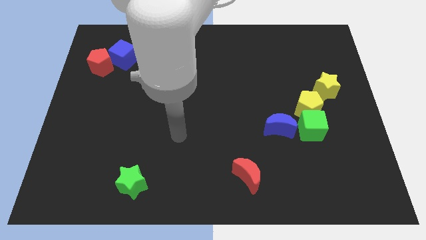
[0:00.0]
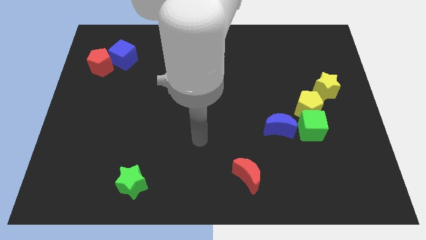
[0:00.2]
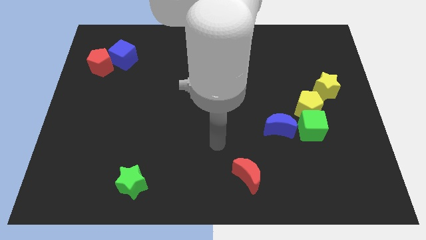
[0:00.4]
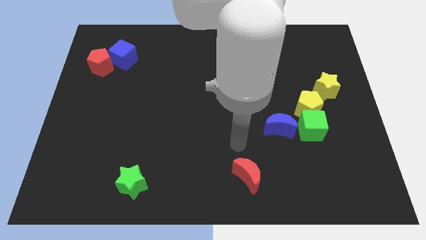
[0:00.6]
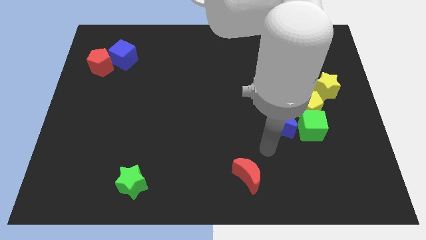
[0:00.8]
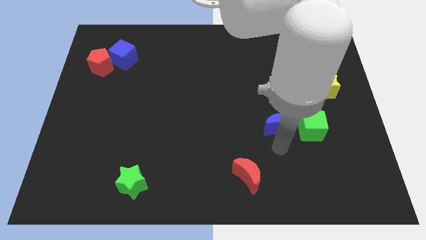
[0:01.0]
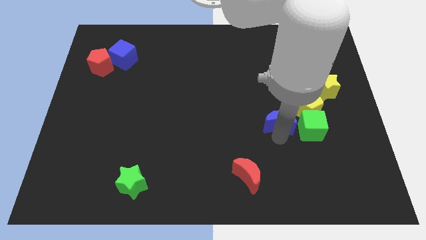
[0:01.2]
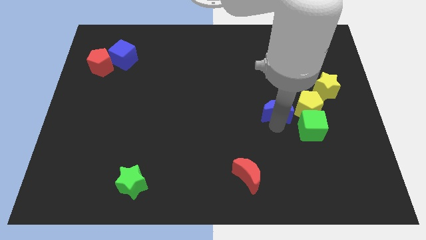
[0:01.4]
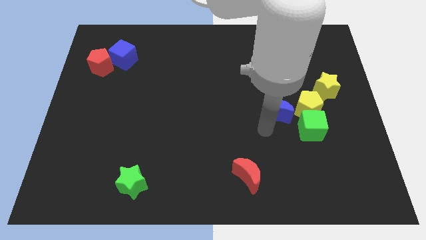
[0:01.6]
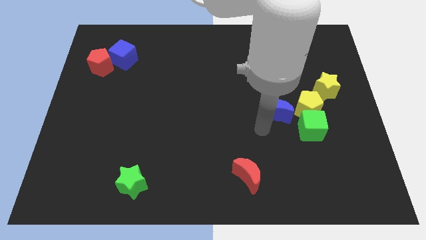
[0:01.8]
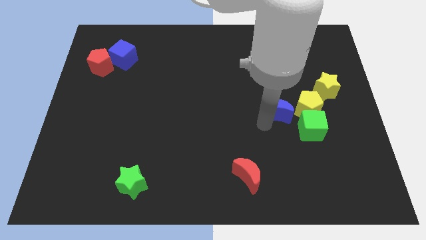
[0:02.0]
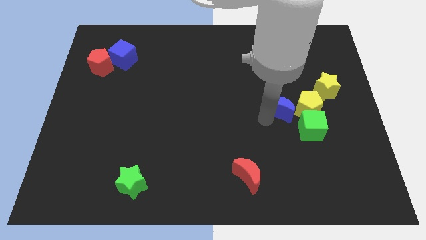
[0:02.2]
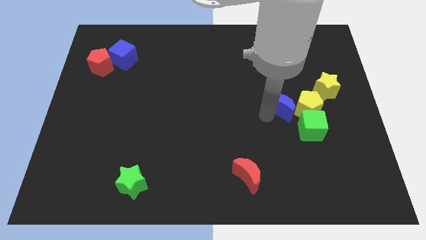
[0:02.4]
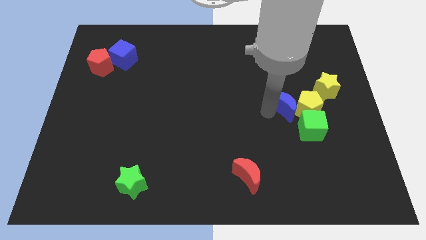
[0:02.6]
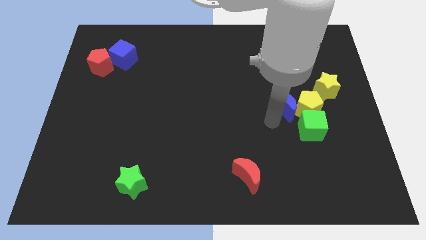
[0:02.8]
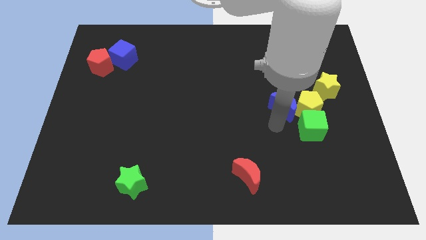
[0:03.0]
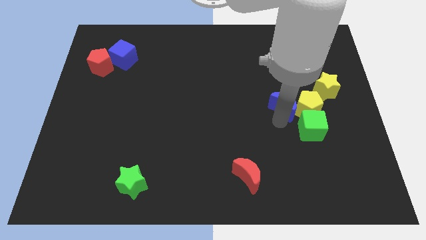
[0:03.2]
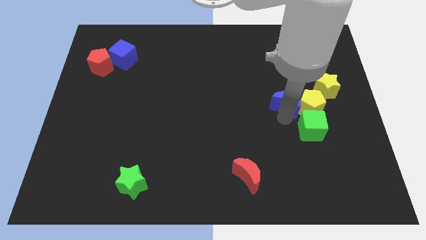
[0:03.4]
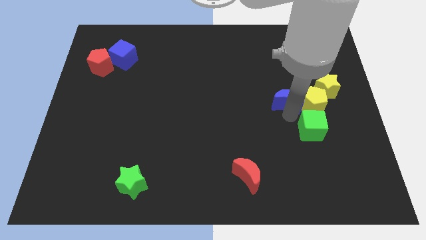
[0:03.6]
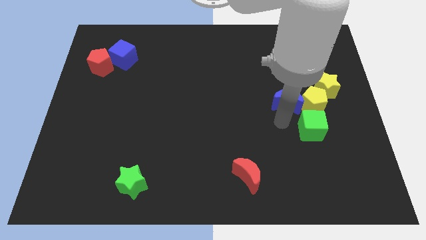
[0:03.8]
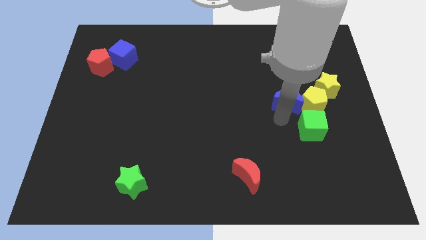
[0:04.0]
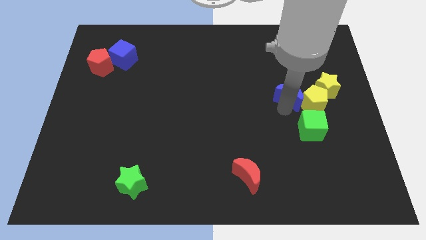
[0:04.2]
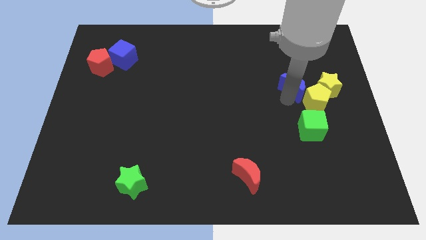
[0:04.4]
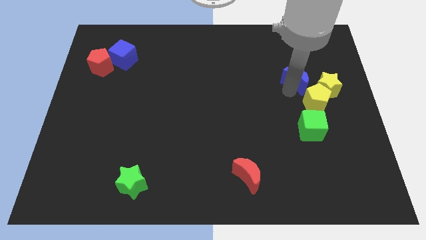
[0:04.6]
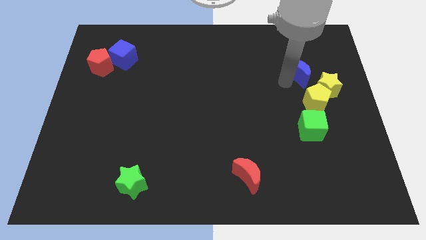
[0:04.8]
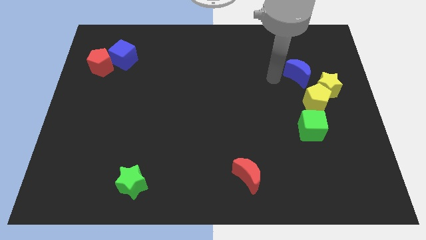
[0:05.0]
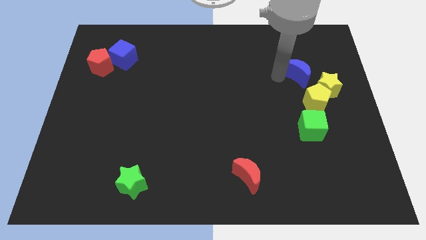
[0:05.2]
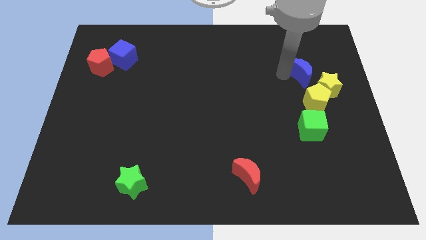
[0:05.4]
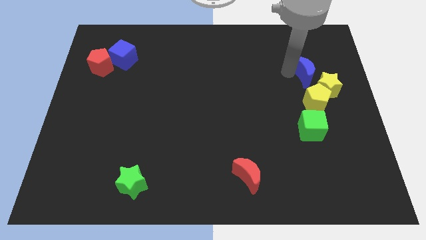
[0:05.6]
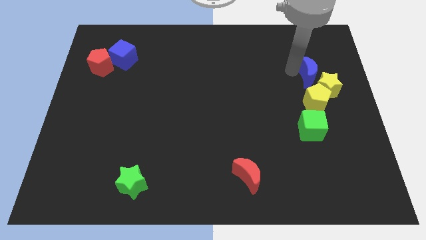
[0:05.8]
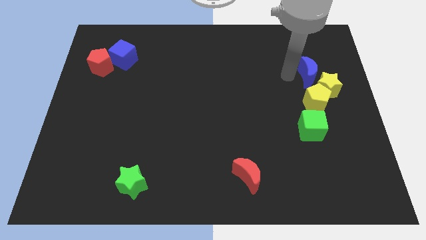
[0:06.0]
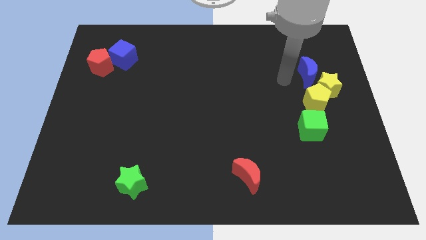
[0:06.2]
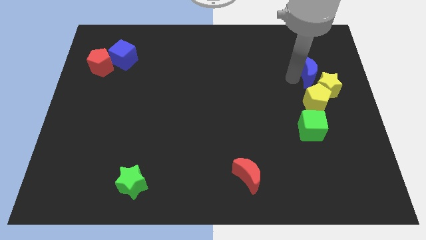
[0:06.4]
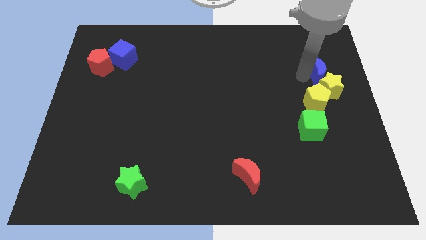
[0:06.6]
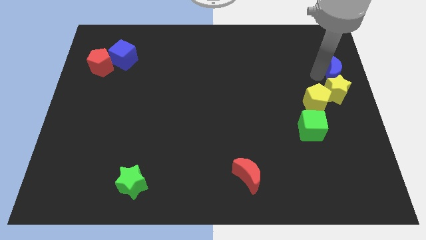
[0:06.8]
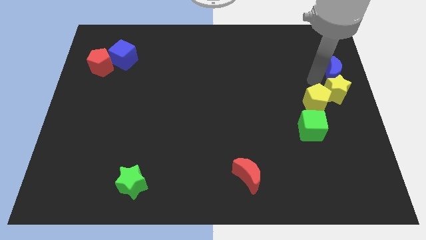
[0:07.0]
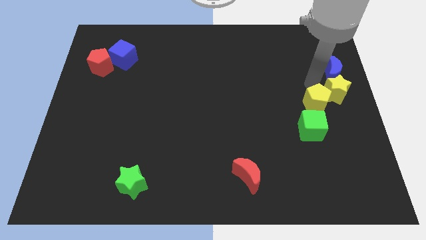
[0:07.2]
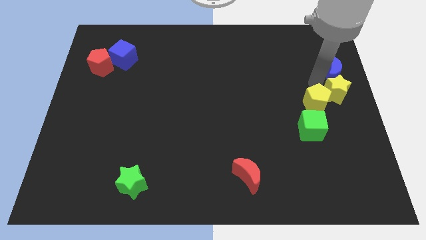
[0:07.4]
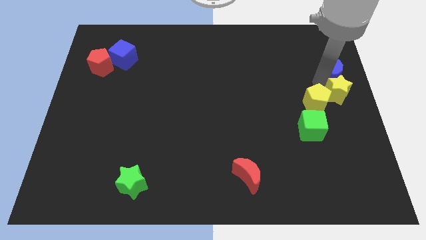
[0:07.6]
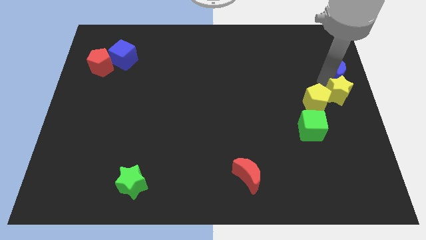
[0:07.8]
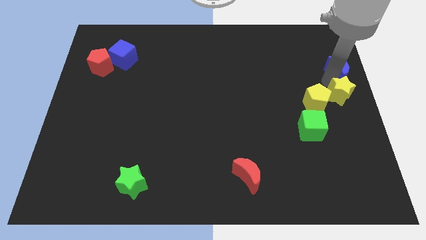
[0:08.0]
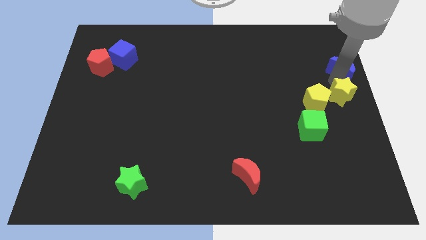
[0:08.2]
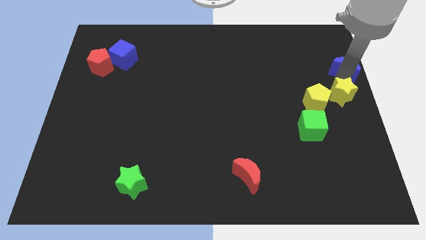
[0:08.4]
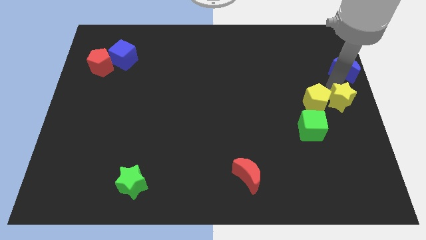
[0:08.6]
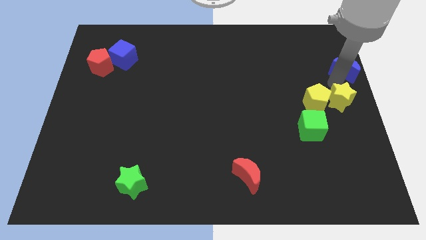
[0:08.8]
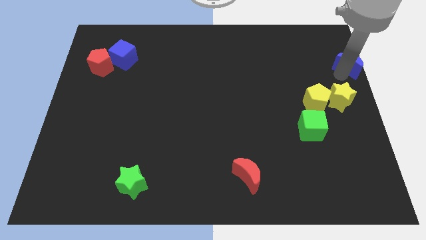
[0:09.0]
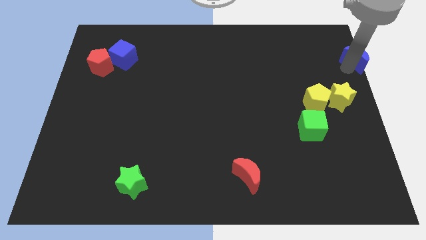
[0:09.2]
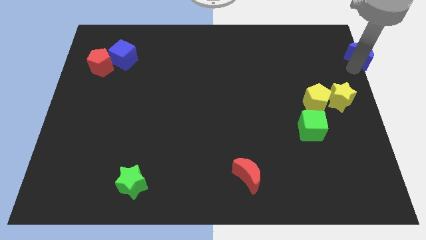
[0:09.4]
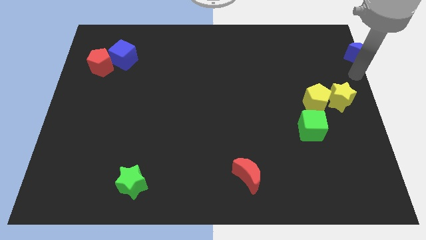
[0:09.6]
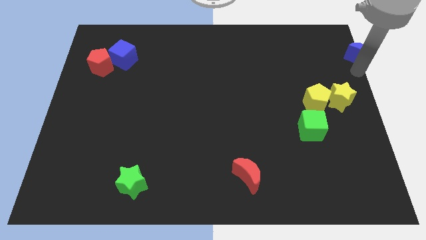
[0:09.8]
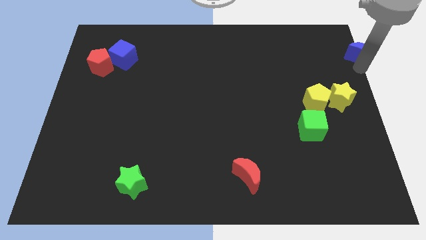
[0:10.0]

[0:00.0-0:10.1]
put the blue moon to the top right corner
